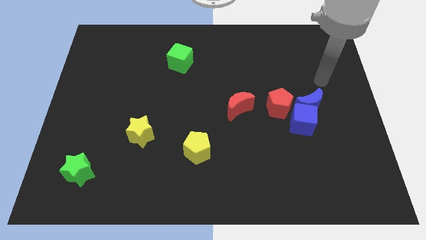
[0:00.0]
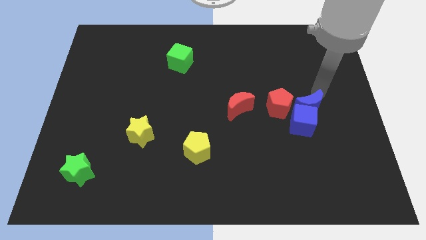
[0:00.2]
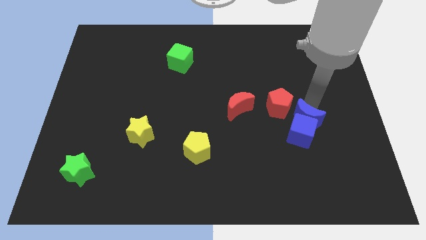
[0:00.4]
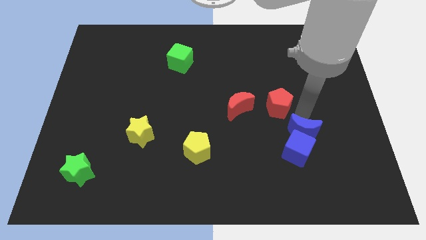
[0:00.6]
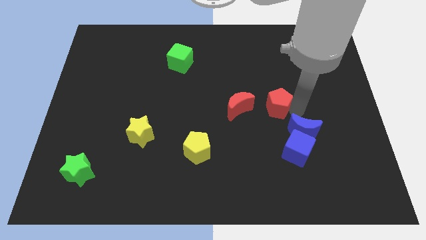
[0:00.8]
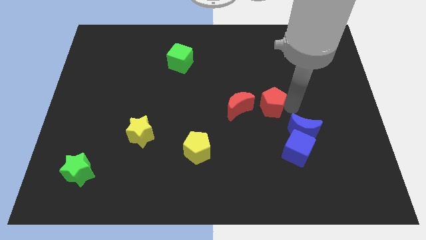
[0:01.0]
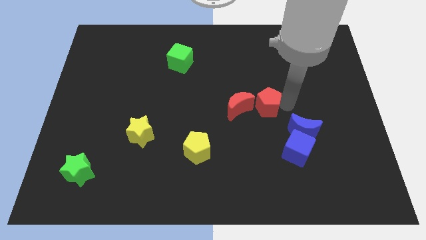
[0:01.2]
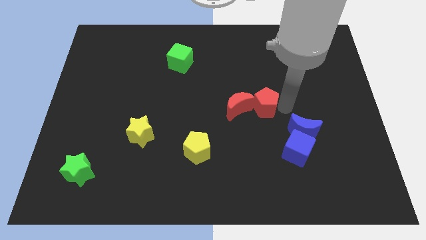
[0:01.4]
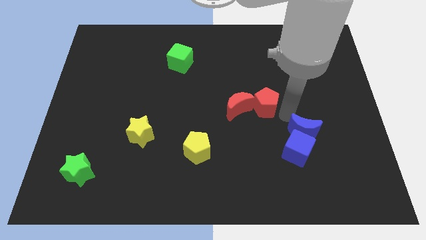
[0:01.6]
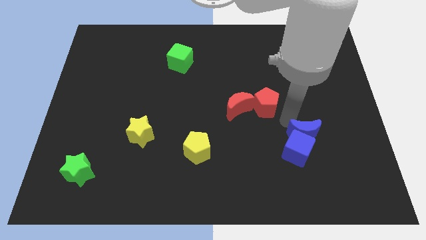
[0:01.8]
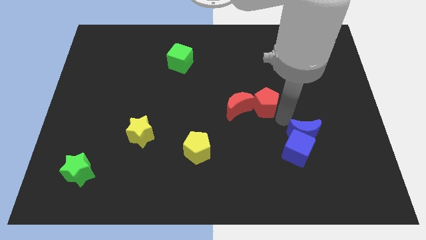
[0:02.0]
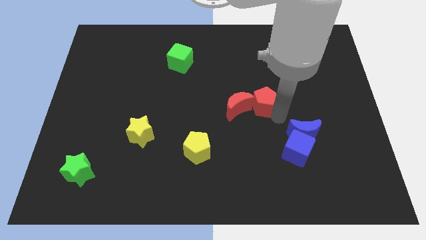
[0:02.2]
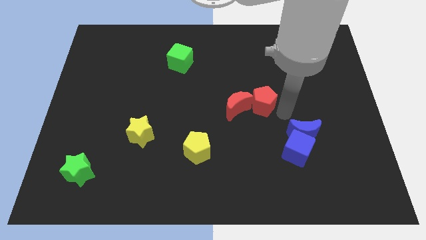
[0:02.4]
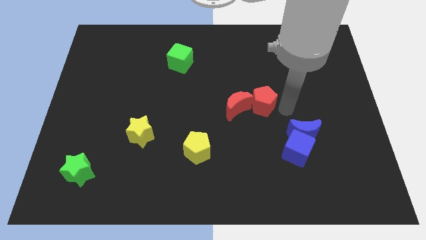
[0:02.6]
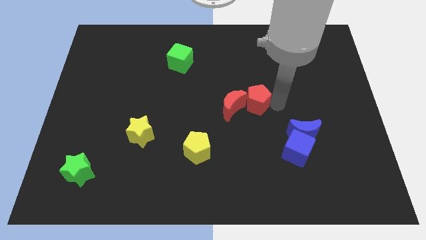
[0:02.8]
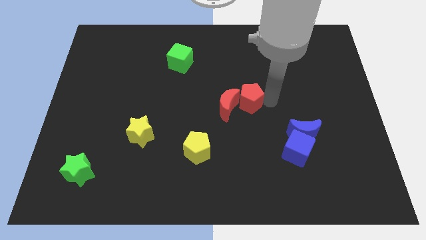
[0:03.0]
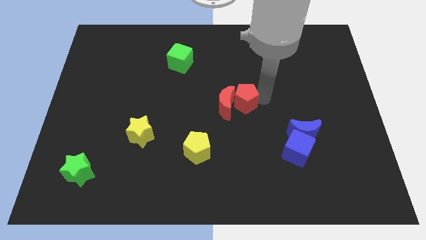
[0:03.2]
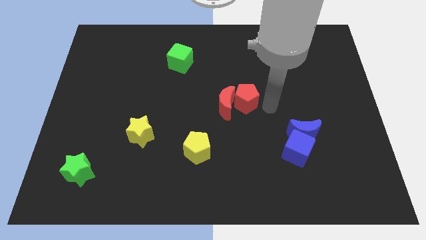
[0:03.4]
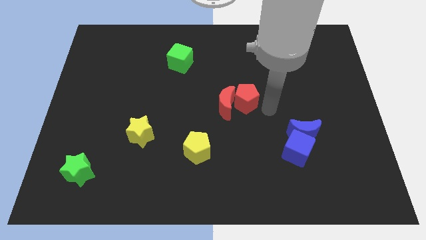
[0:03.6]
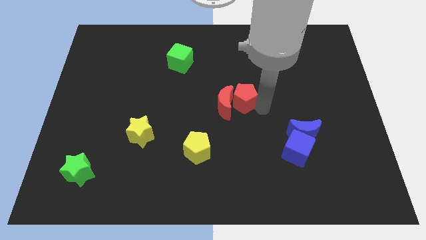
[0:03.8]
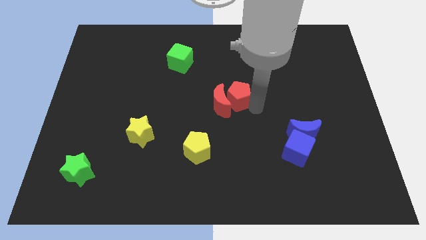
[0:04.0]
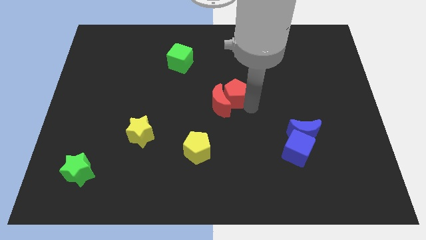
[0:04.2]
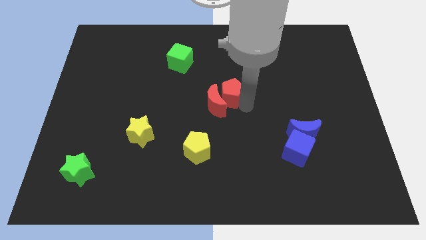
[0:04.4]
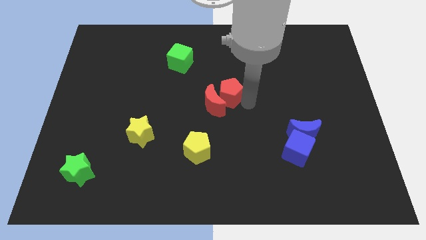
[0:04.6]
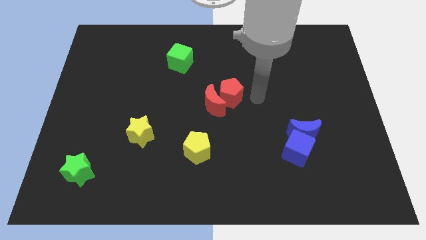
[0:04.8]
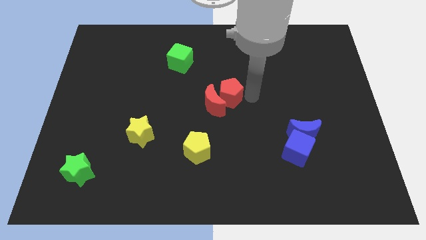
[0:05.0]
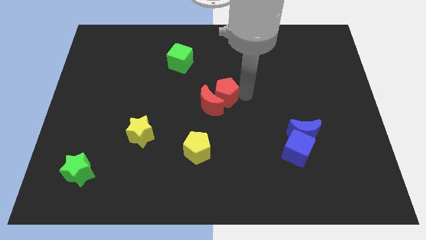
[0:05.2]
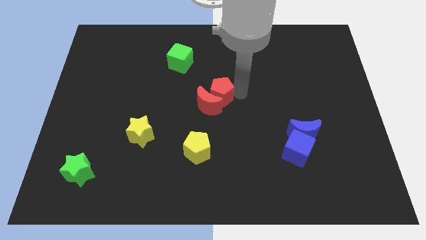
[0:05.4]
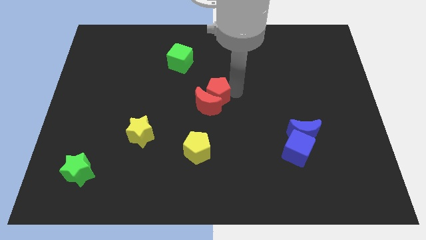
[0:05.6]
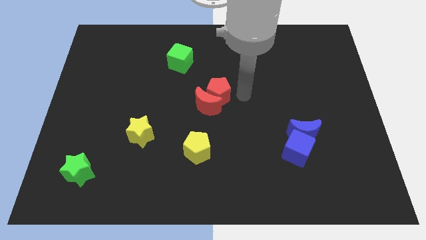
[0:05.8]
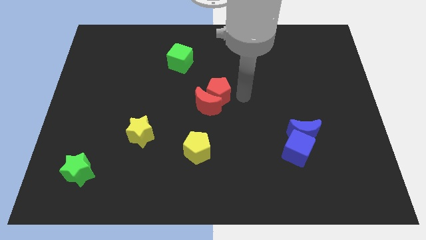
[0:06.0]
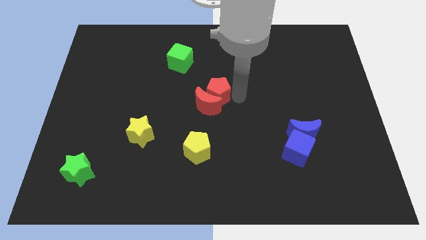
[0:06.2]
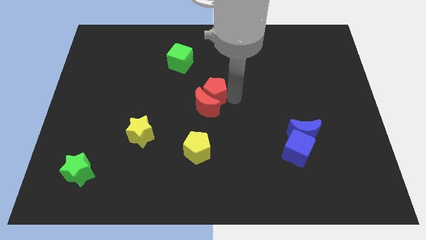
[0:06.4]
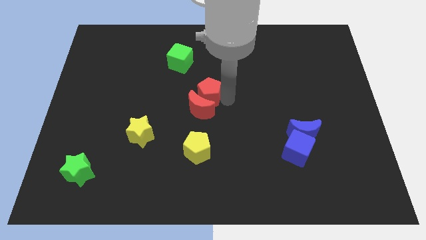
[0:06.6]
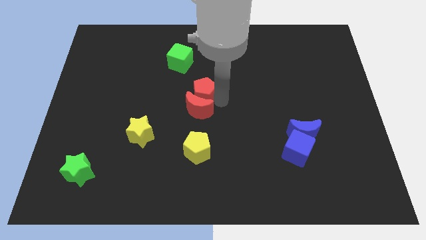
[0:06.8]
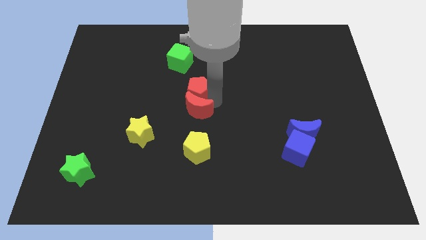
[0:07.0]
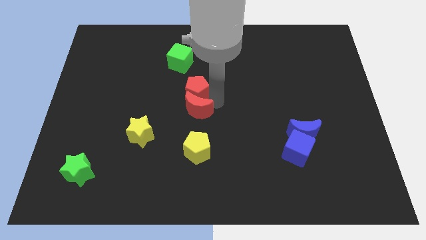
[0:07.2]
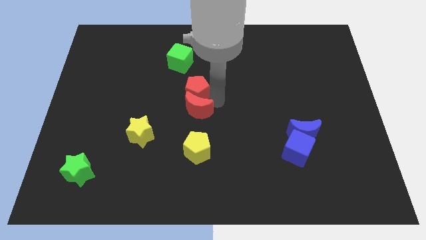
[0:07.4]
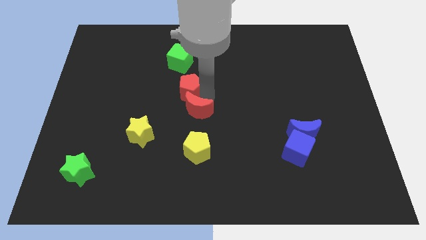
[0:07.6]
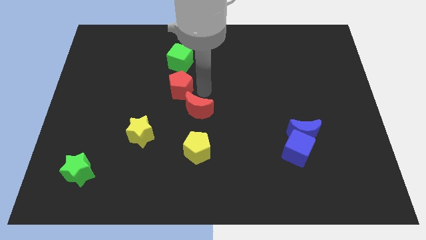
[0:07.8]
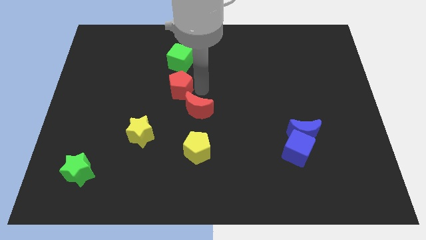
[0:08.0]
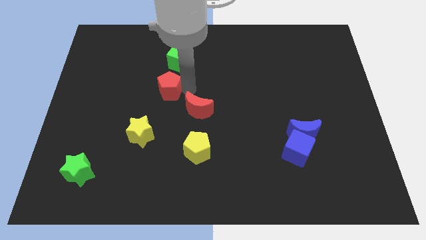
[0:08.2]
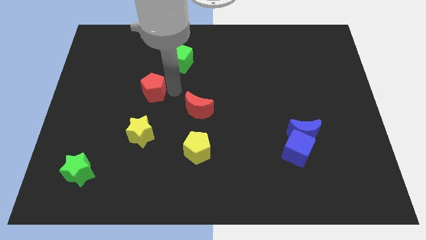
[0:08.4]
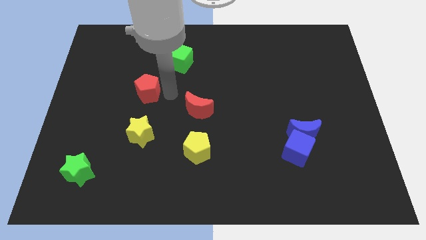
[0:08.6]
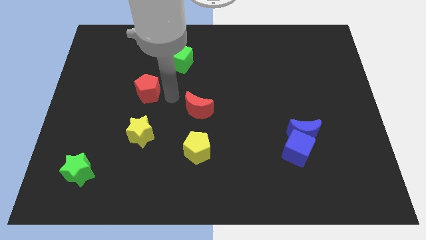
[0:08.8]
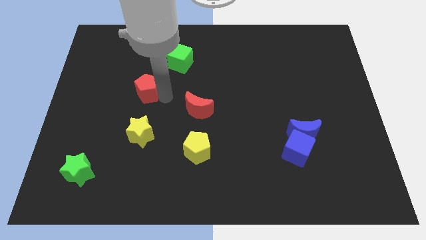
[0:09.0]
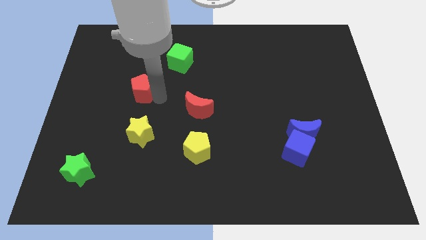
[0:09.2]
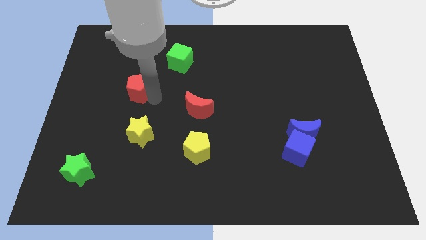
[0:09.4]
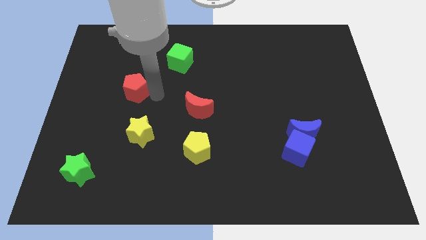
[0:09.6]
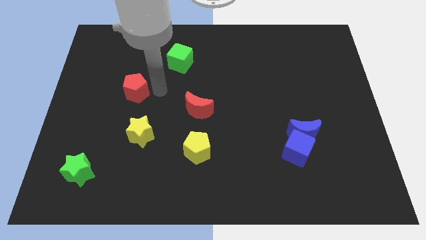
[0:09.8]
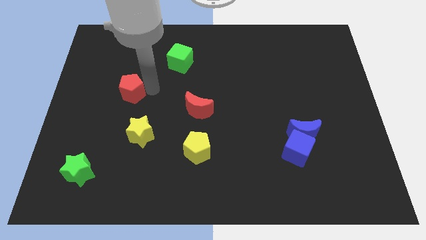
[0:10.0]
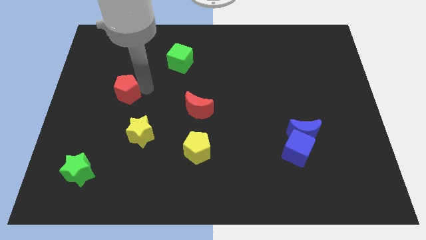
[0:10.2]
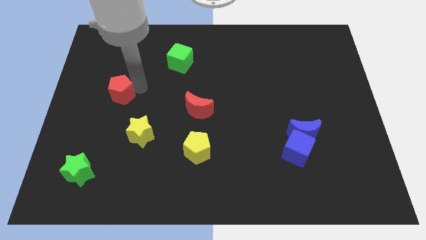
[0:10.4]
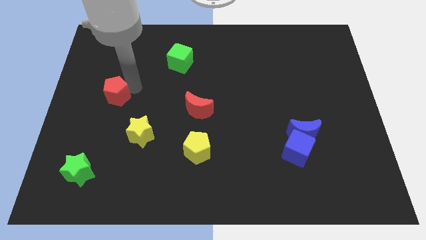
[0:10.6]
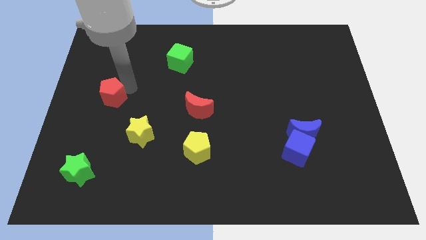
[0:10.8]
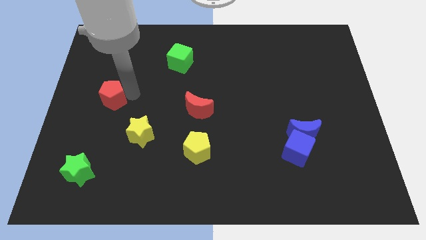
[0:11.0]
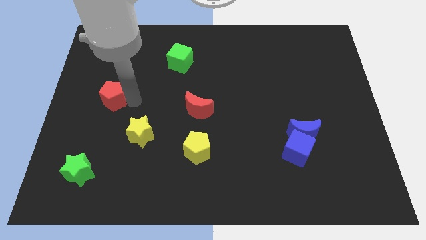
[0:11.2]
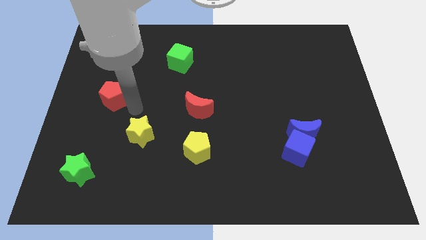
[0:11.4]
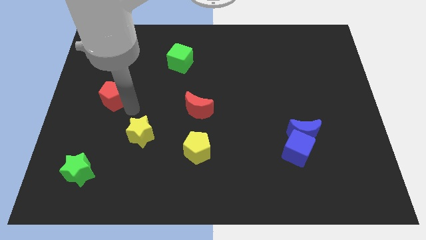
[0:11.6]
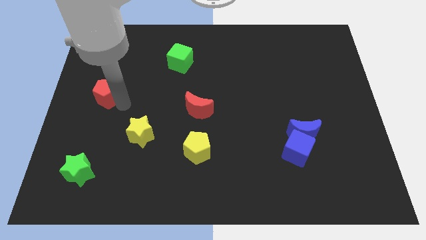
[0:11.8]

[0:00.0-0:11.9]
move the red pentagon to the left side

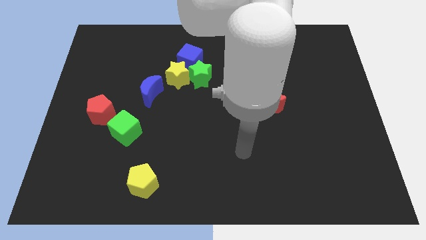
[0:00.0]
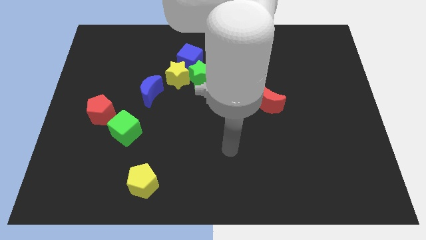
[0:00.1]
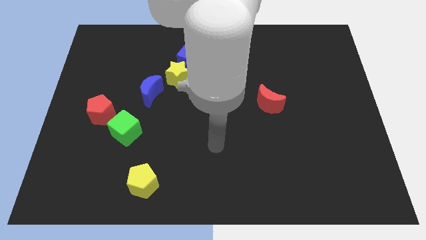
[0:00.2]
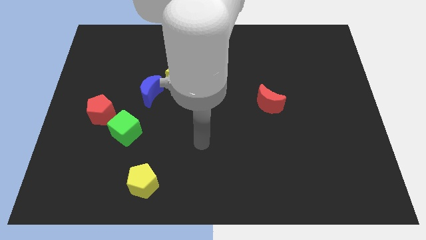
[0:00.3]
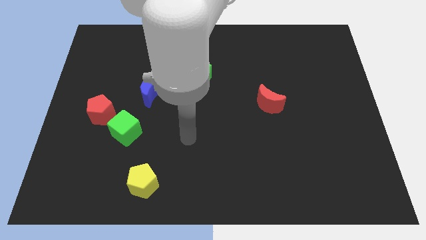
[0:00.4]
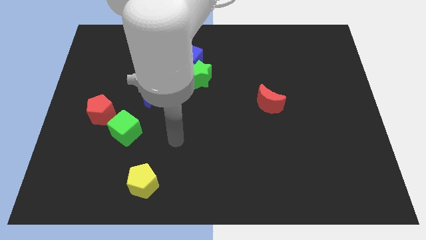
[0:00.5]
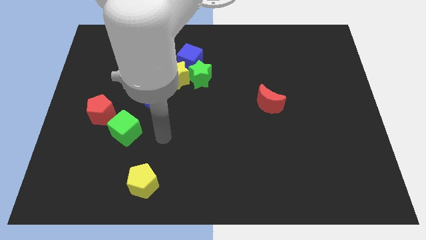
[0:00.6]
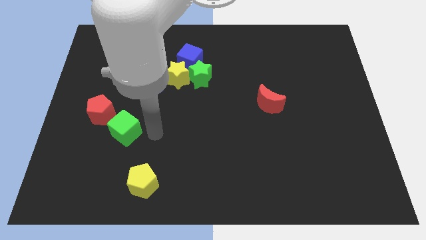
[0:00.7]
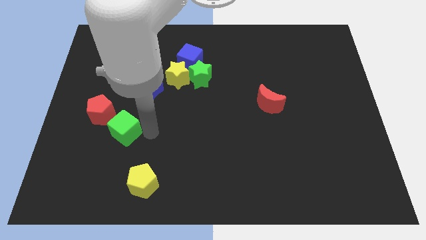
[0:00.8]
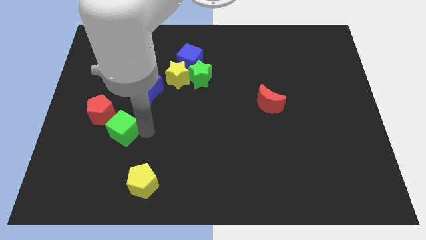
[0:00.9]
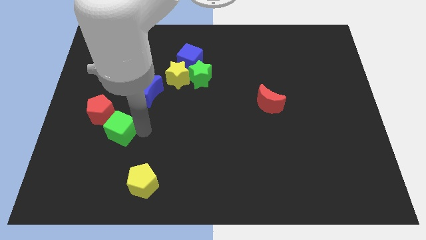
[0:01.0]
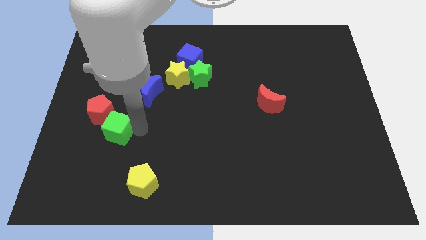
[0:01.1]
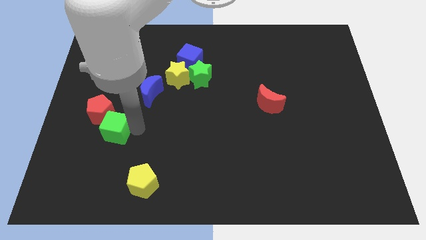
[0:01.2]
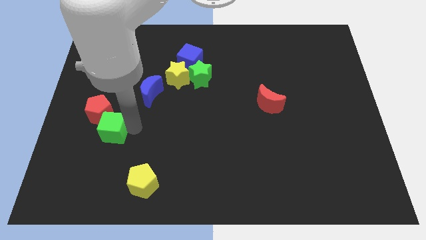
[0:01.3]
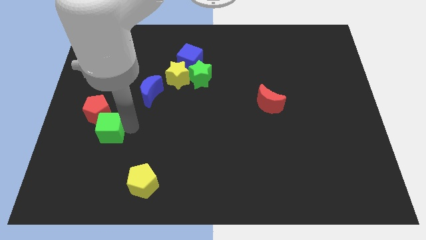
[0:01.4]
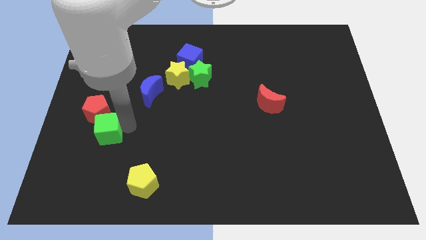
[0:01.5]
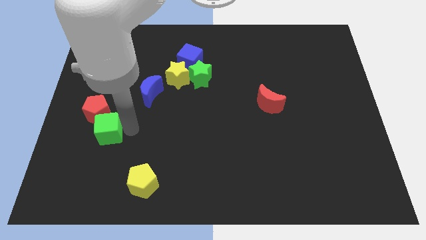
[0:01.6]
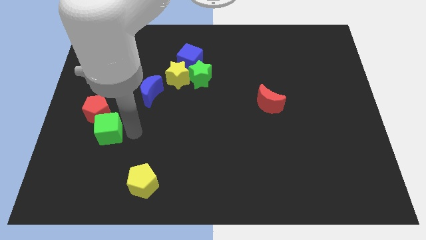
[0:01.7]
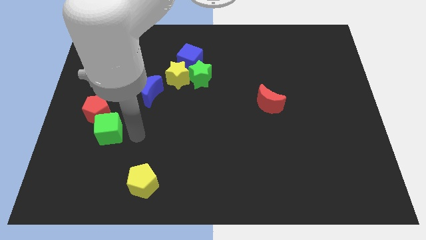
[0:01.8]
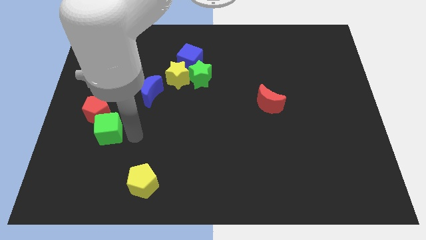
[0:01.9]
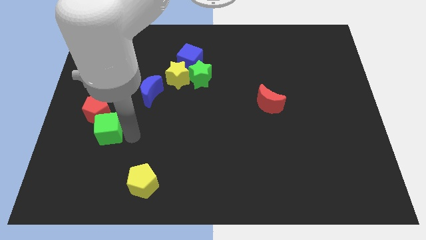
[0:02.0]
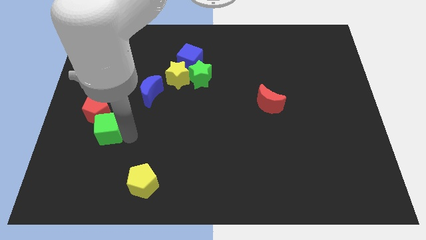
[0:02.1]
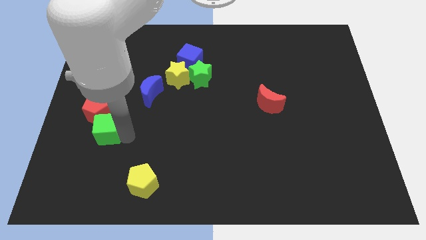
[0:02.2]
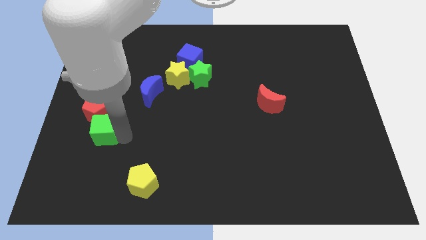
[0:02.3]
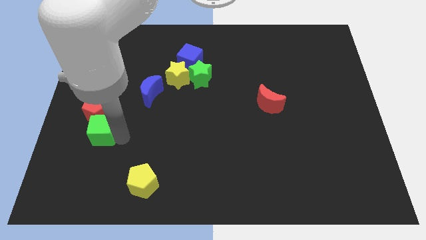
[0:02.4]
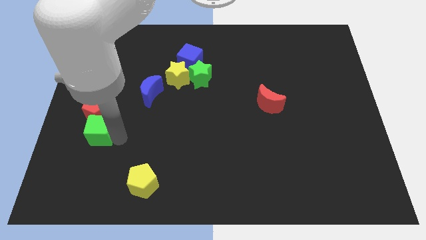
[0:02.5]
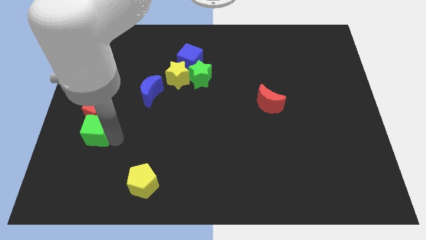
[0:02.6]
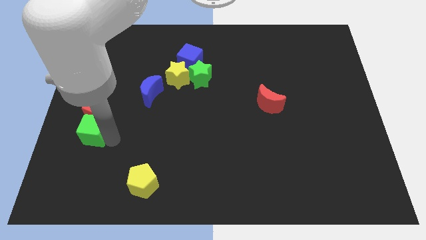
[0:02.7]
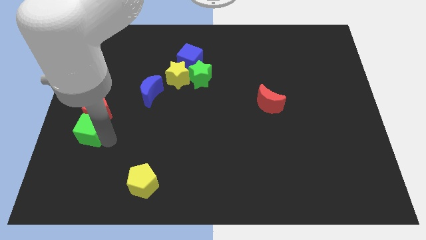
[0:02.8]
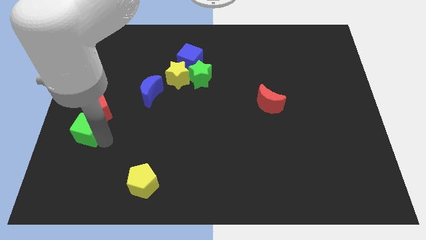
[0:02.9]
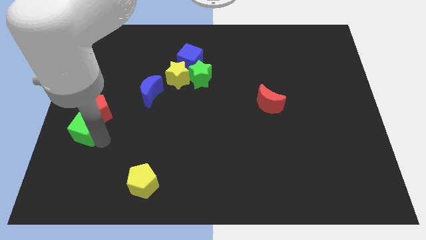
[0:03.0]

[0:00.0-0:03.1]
move the green cube to the left side
